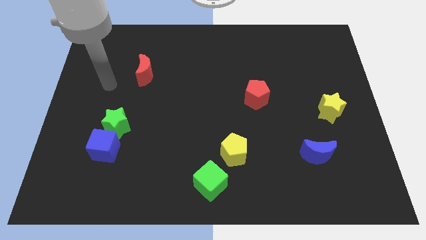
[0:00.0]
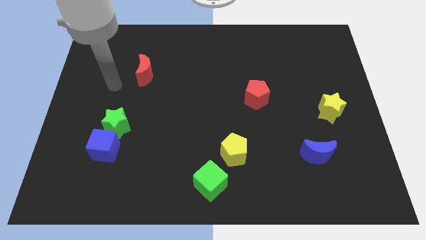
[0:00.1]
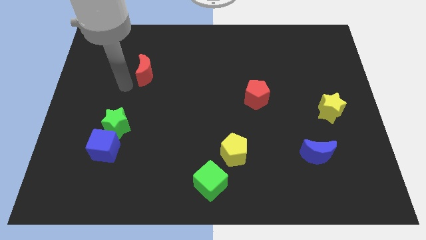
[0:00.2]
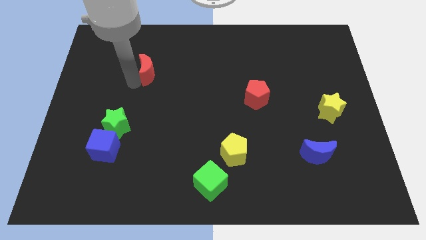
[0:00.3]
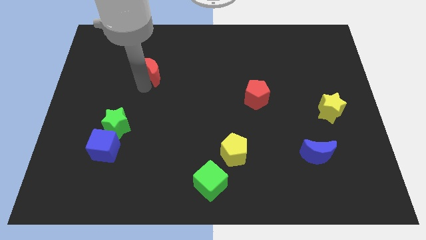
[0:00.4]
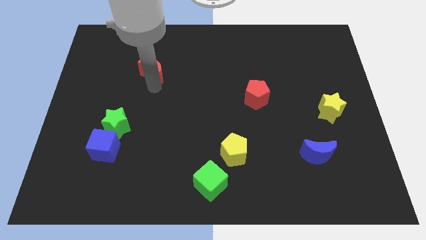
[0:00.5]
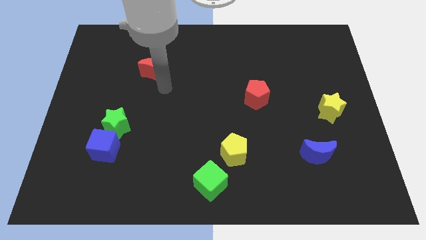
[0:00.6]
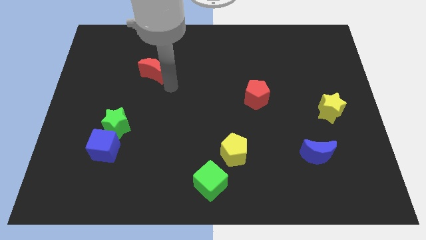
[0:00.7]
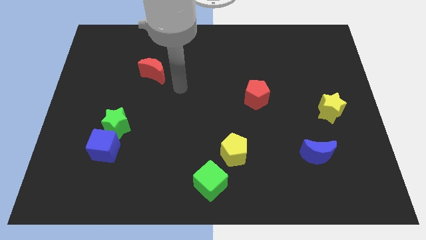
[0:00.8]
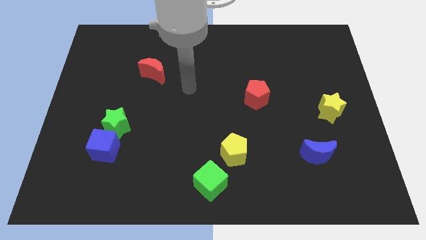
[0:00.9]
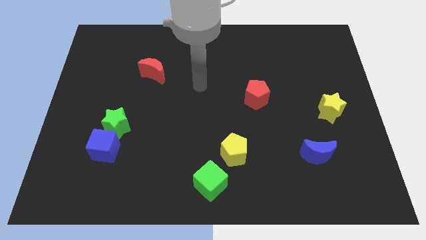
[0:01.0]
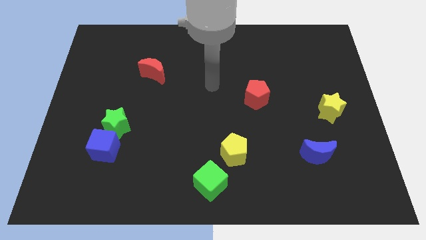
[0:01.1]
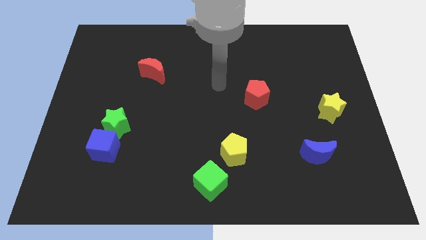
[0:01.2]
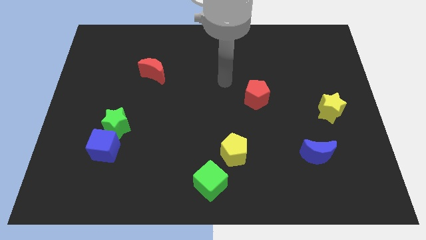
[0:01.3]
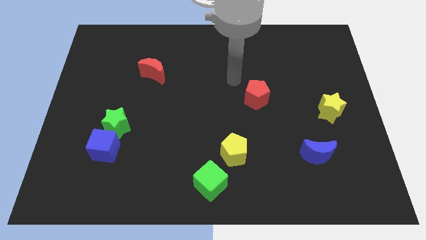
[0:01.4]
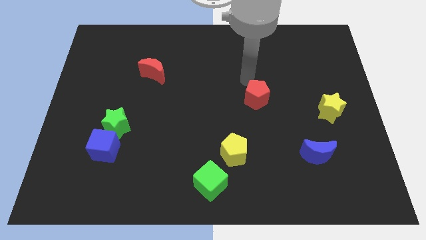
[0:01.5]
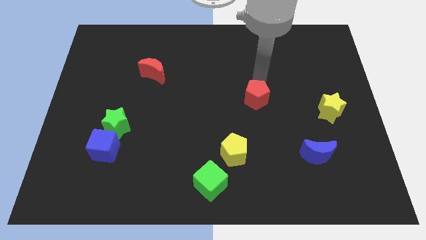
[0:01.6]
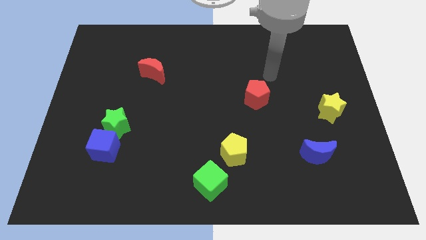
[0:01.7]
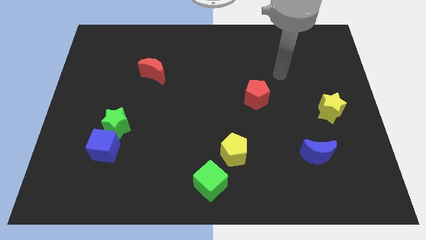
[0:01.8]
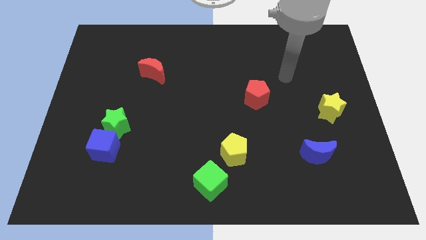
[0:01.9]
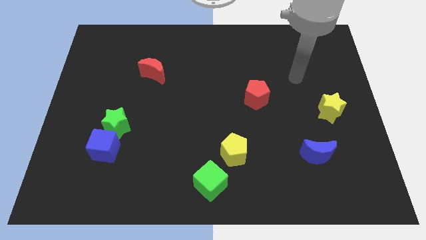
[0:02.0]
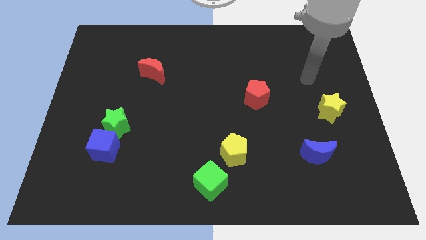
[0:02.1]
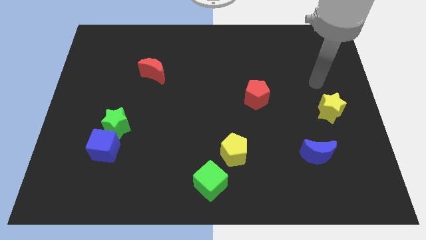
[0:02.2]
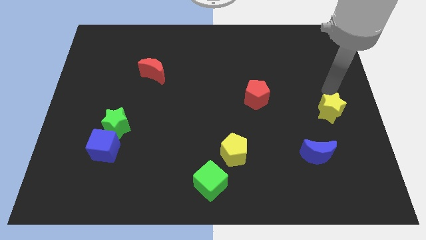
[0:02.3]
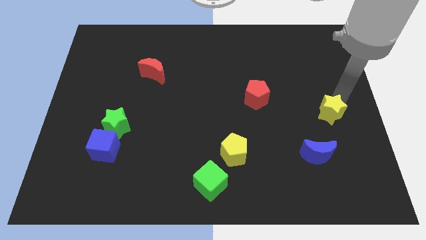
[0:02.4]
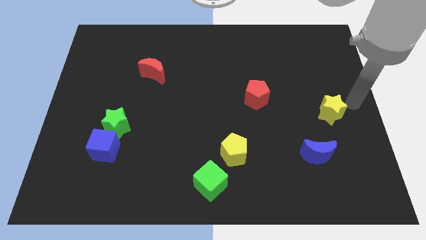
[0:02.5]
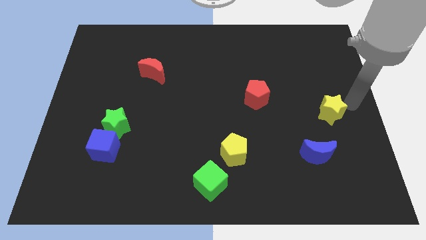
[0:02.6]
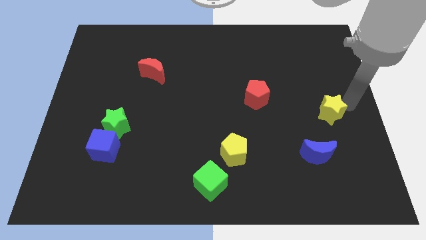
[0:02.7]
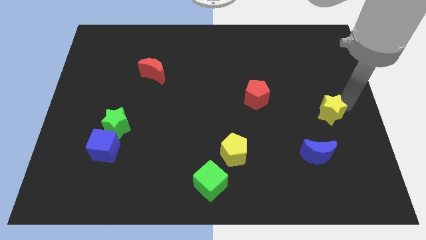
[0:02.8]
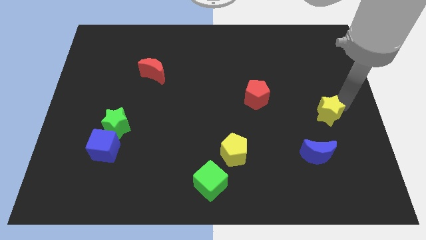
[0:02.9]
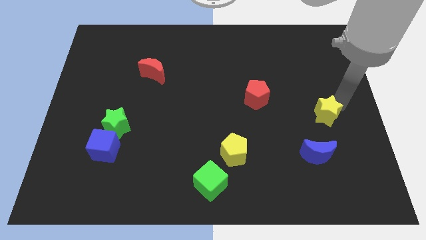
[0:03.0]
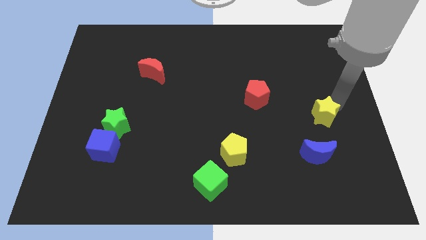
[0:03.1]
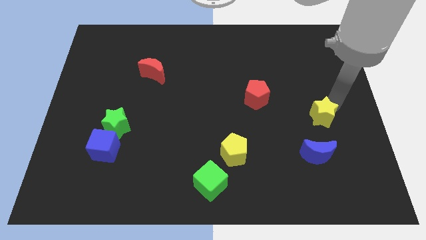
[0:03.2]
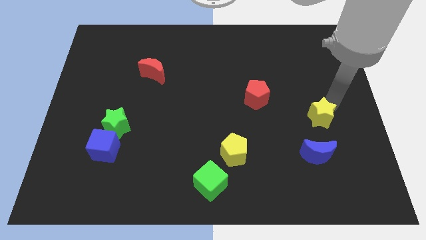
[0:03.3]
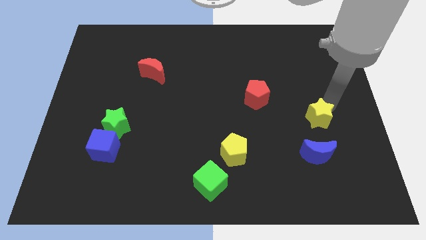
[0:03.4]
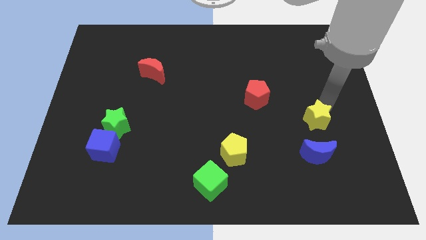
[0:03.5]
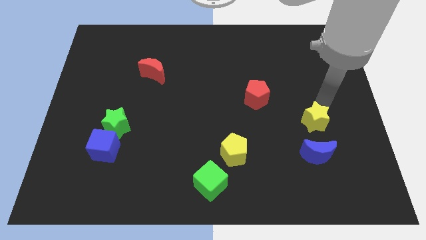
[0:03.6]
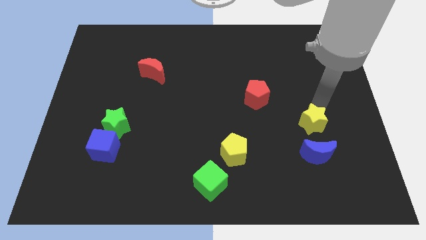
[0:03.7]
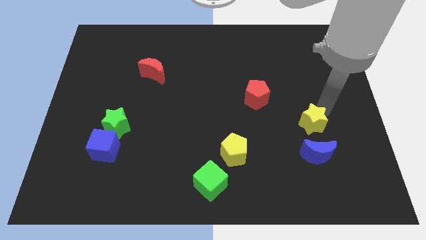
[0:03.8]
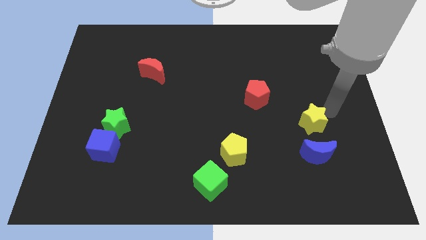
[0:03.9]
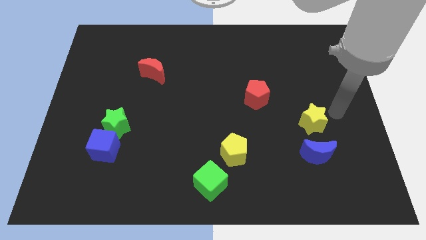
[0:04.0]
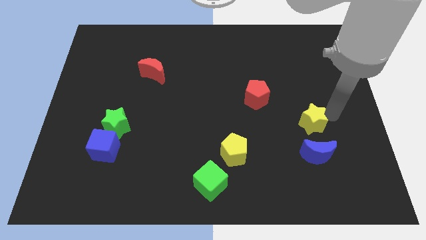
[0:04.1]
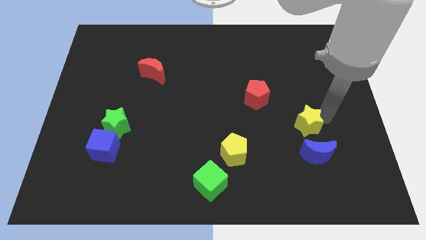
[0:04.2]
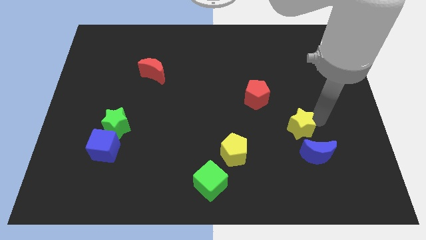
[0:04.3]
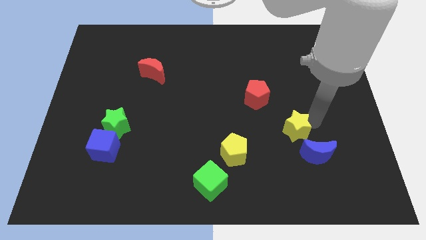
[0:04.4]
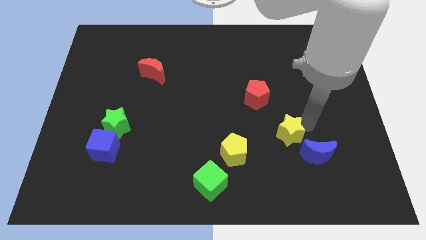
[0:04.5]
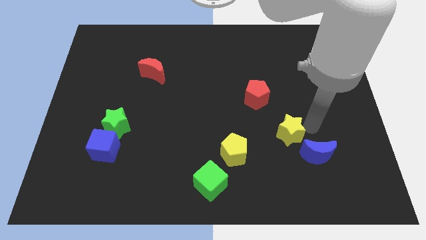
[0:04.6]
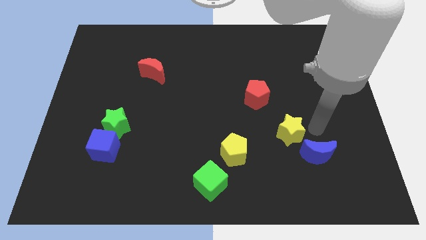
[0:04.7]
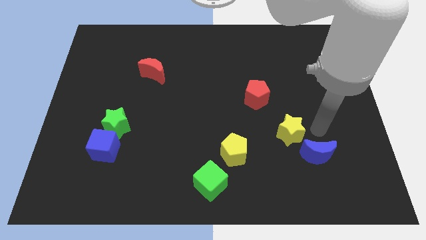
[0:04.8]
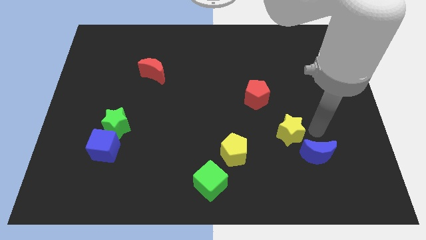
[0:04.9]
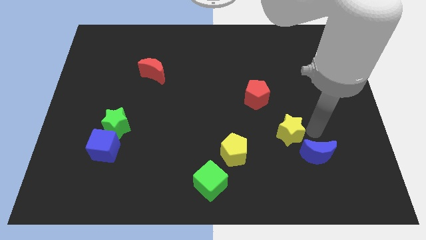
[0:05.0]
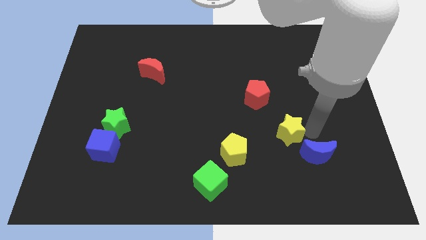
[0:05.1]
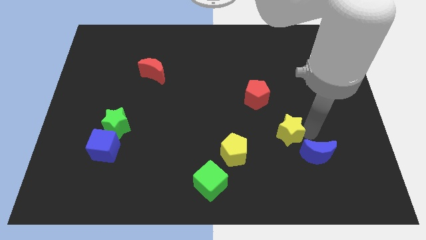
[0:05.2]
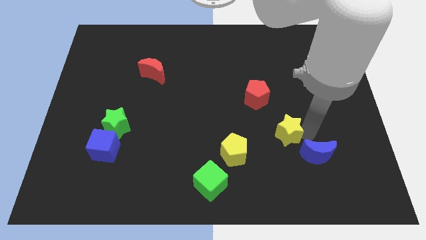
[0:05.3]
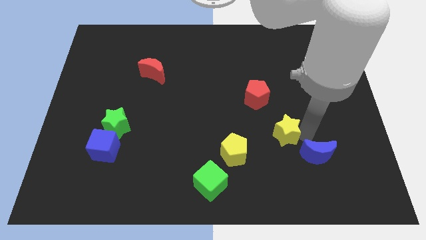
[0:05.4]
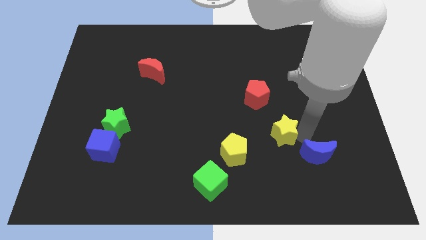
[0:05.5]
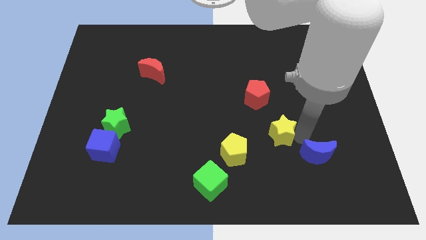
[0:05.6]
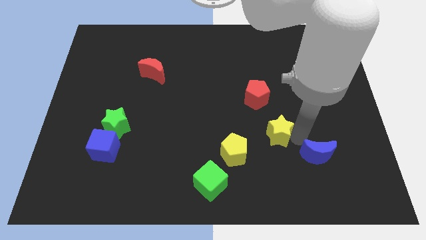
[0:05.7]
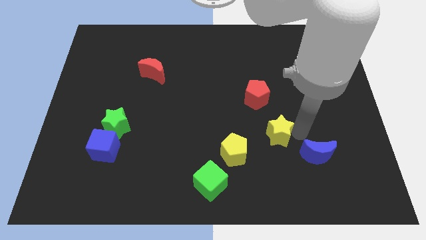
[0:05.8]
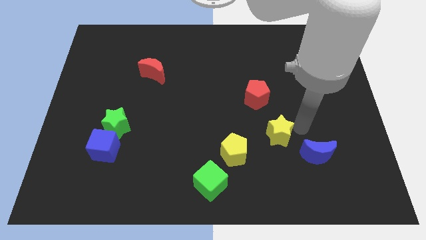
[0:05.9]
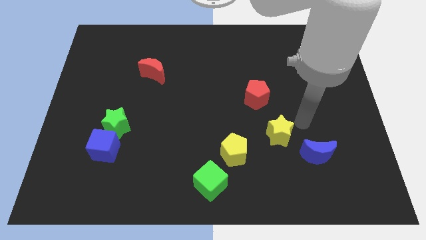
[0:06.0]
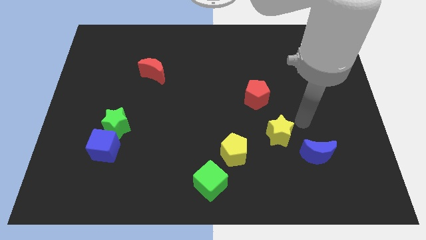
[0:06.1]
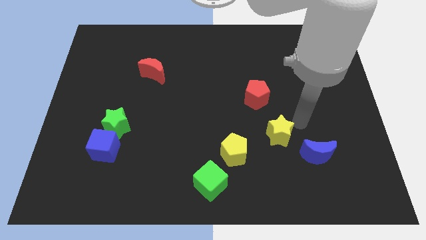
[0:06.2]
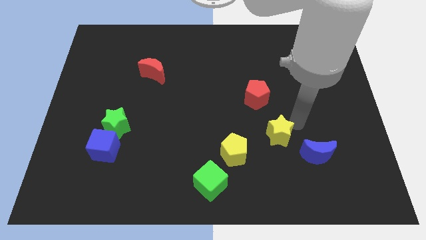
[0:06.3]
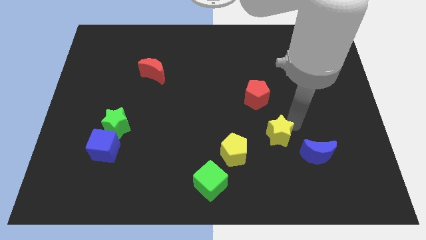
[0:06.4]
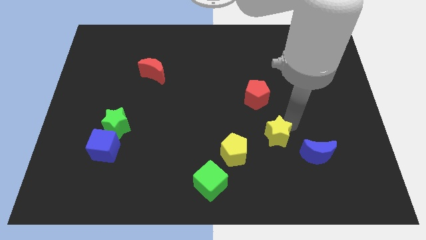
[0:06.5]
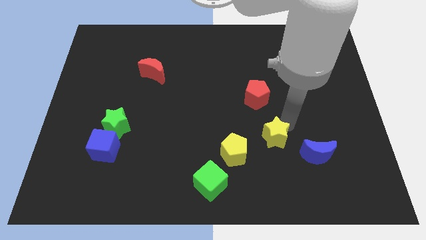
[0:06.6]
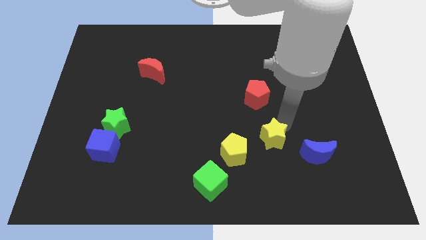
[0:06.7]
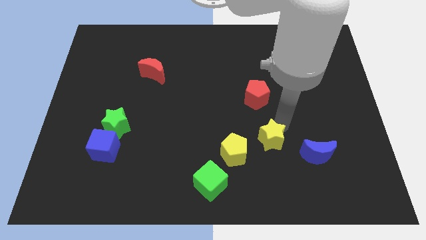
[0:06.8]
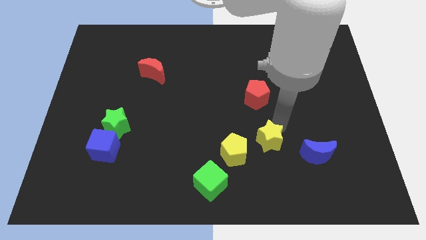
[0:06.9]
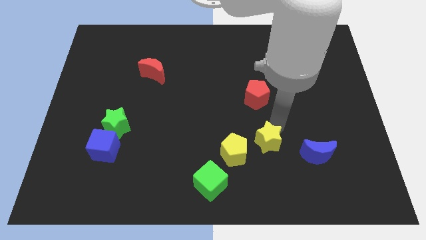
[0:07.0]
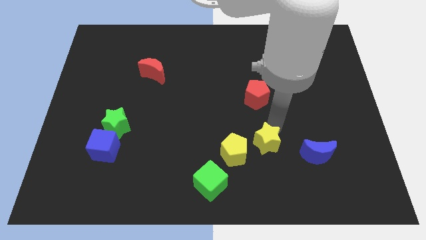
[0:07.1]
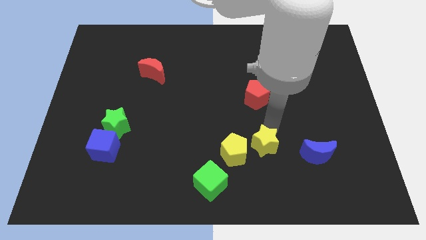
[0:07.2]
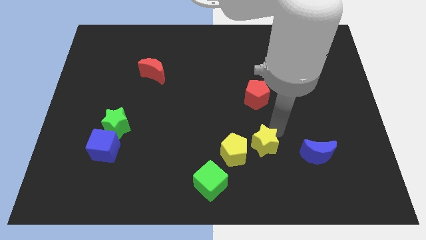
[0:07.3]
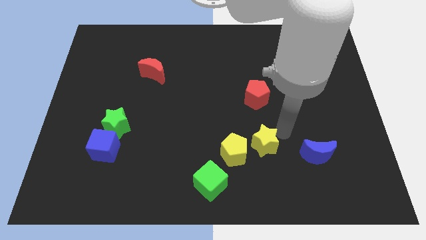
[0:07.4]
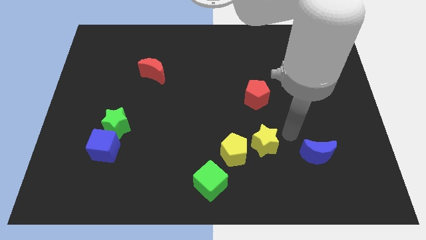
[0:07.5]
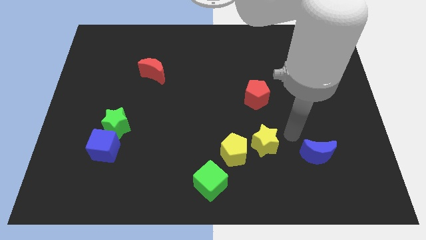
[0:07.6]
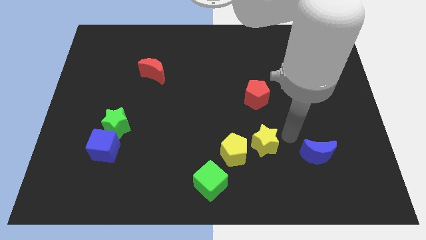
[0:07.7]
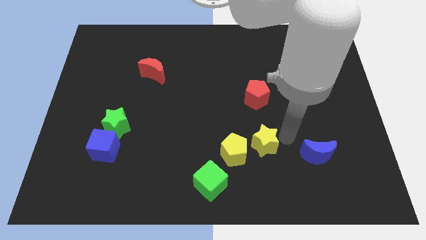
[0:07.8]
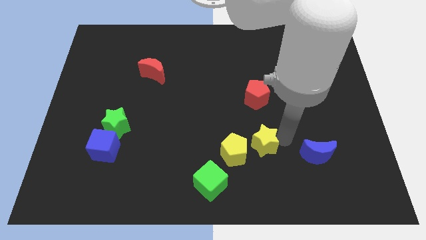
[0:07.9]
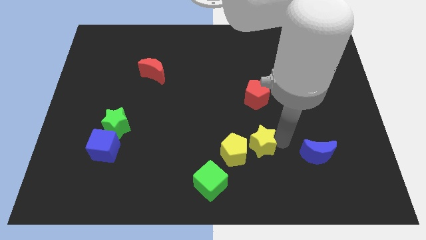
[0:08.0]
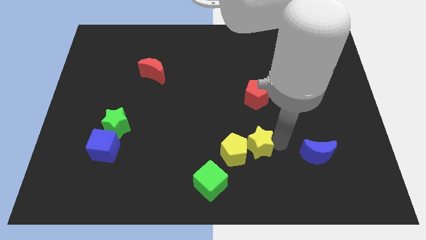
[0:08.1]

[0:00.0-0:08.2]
push the yellow star towards the yellow pentagon
